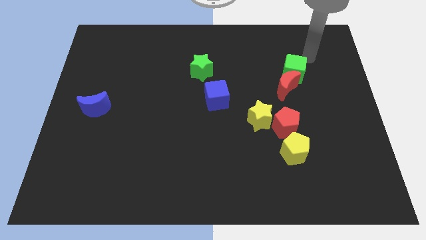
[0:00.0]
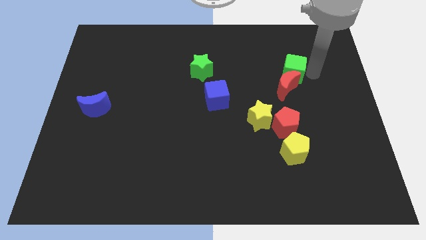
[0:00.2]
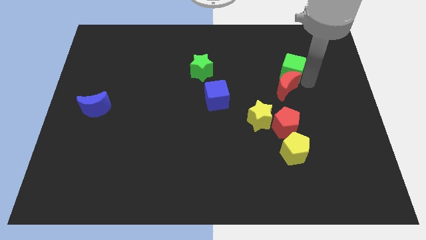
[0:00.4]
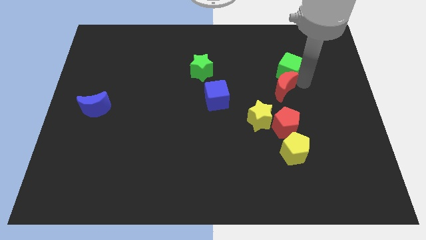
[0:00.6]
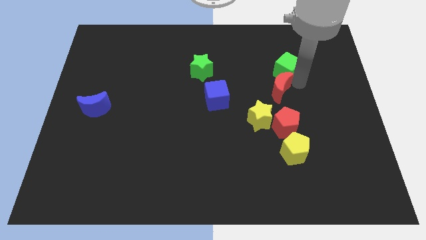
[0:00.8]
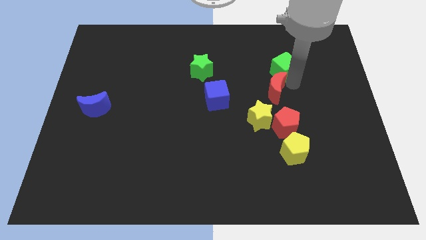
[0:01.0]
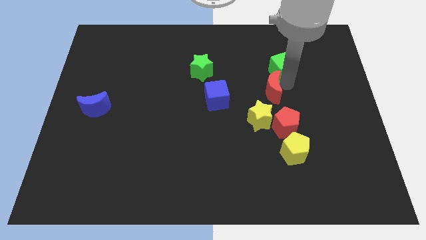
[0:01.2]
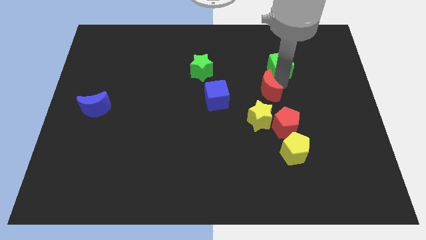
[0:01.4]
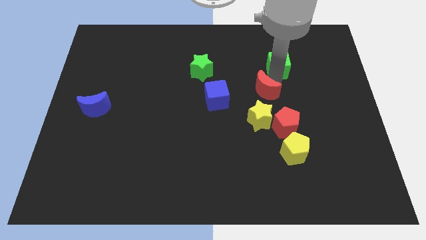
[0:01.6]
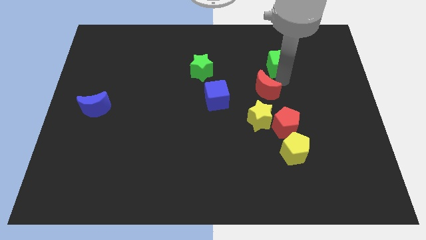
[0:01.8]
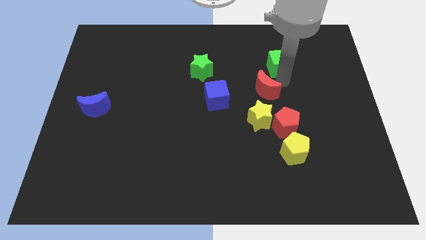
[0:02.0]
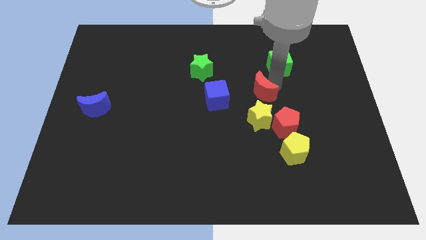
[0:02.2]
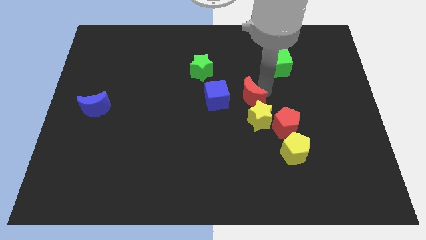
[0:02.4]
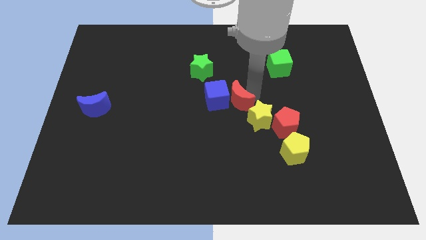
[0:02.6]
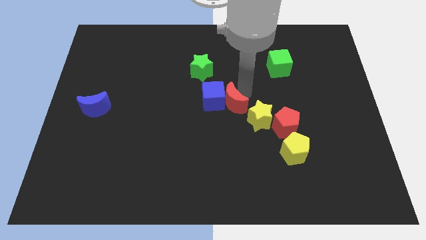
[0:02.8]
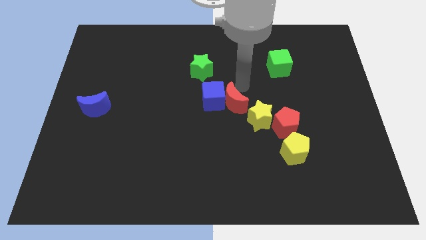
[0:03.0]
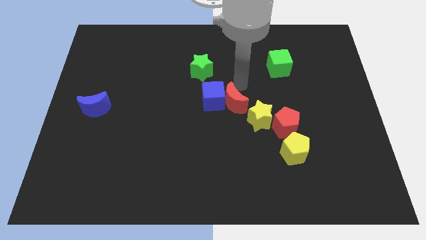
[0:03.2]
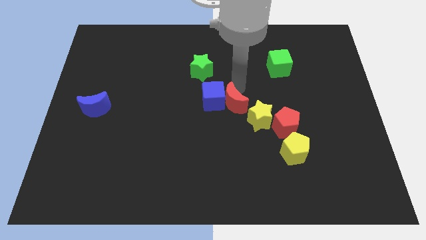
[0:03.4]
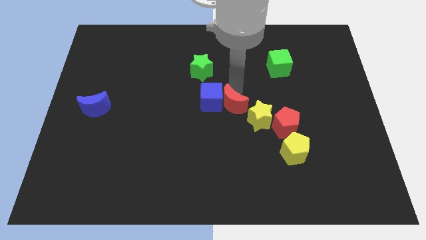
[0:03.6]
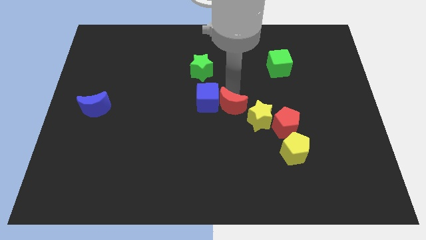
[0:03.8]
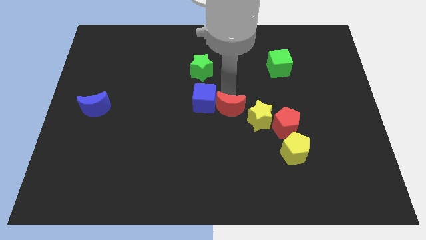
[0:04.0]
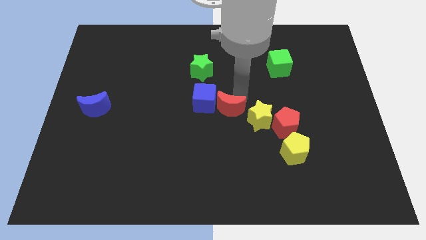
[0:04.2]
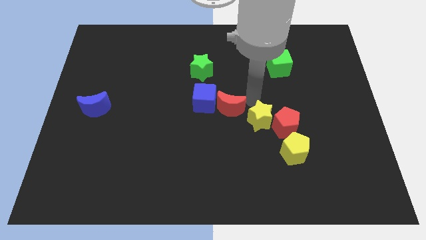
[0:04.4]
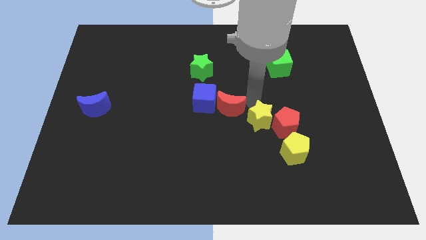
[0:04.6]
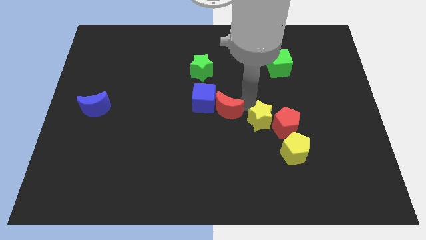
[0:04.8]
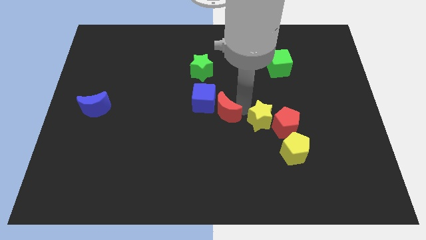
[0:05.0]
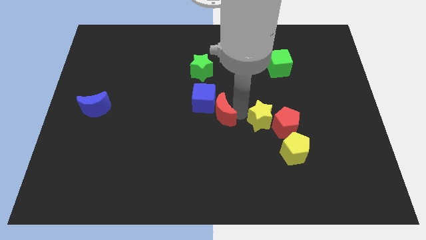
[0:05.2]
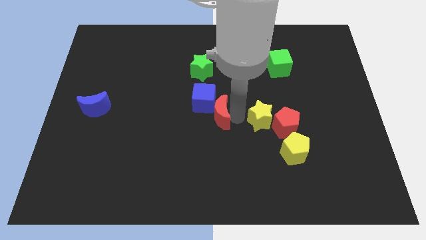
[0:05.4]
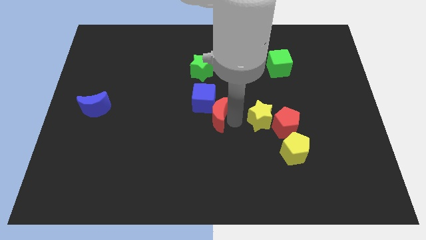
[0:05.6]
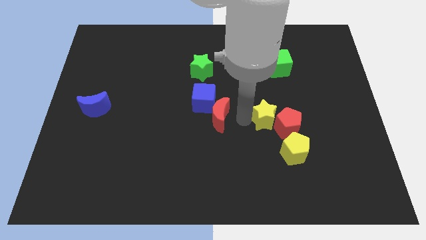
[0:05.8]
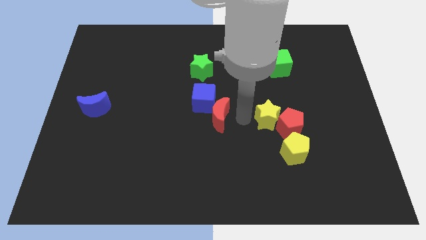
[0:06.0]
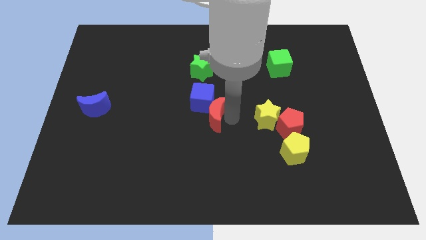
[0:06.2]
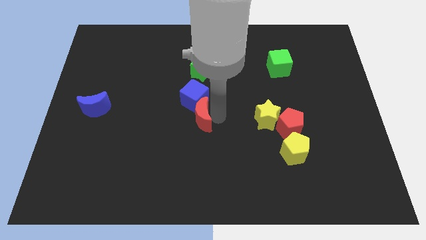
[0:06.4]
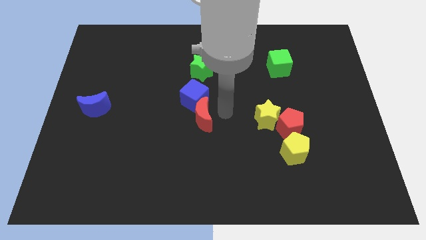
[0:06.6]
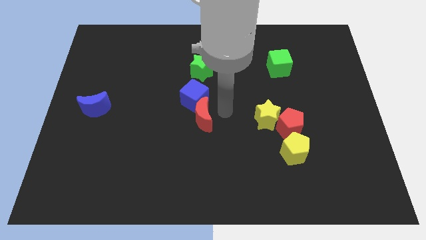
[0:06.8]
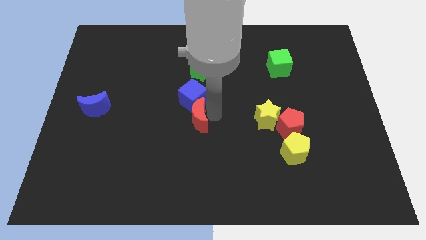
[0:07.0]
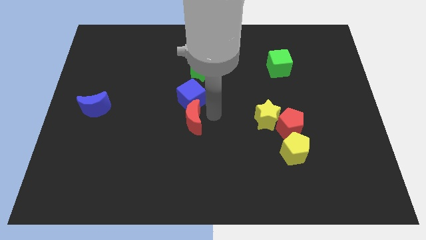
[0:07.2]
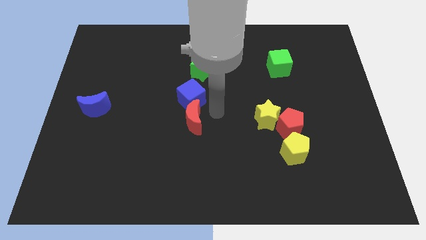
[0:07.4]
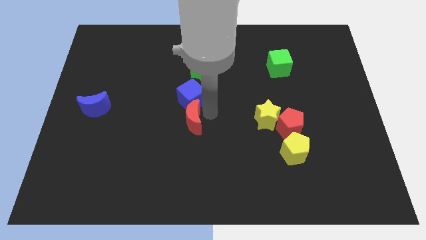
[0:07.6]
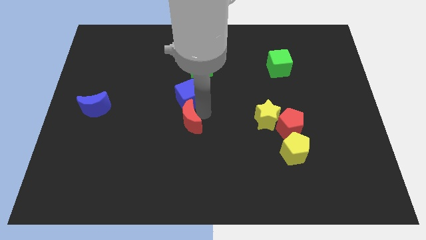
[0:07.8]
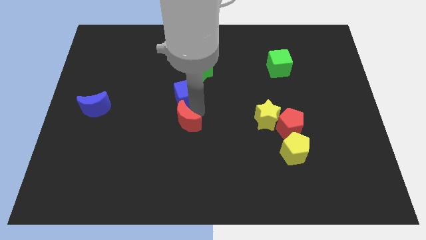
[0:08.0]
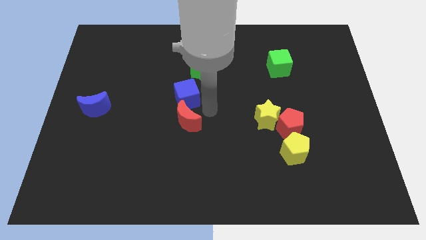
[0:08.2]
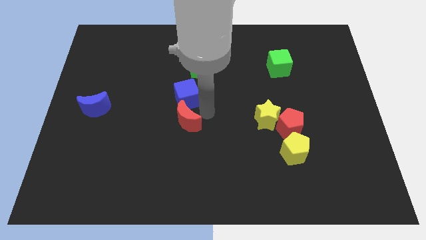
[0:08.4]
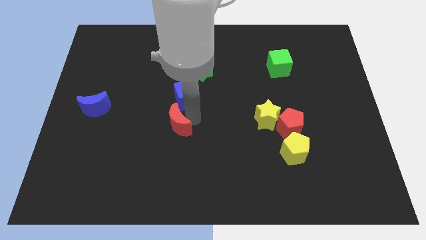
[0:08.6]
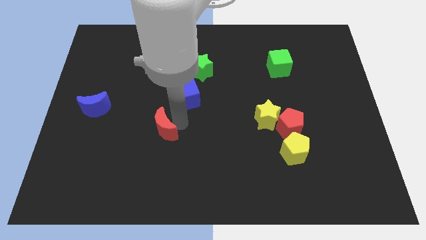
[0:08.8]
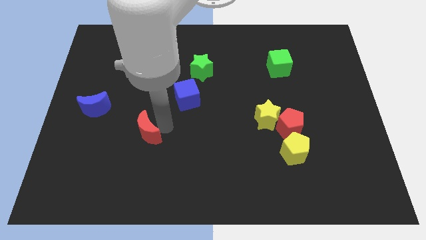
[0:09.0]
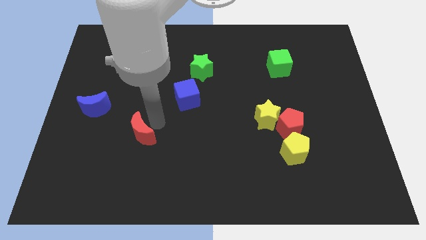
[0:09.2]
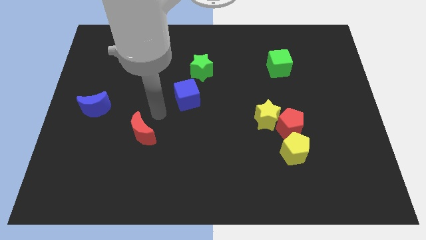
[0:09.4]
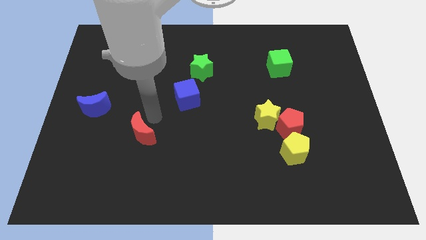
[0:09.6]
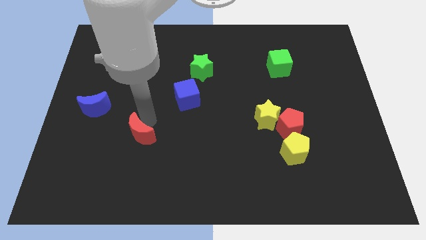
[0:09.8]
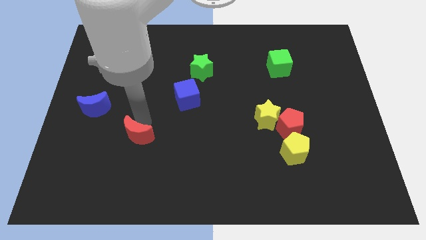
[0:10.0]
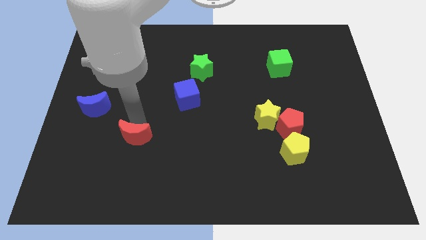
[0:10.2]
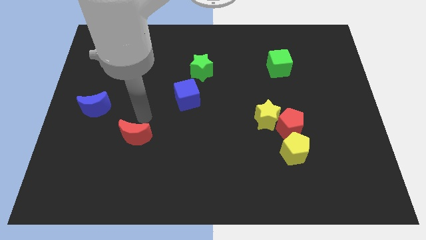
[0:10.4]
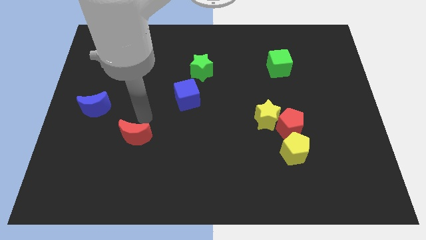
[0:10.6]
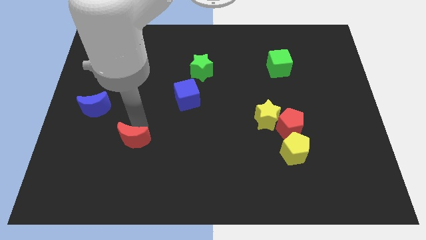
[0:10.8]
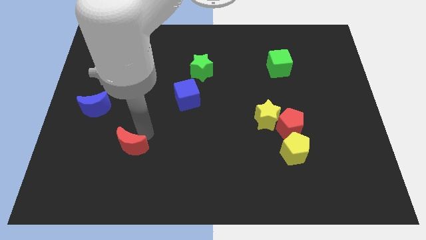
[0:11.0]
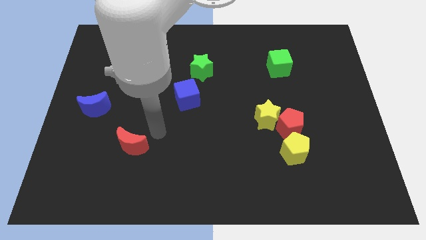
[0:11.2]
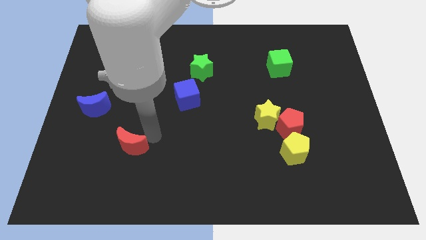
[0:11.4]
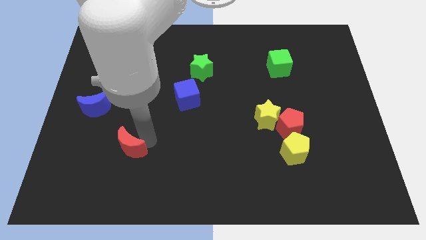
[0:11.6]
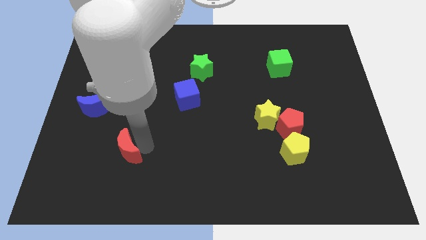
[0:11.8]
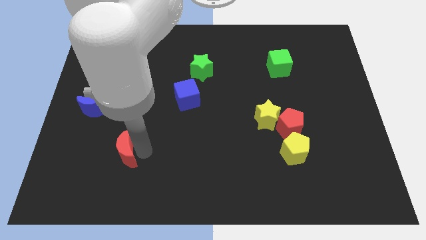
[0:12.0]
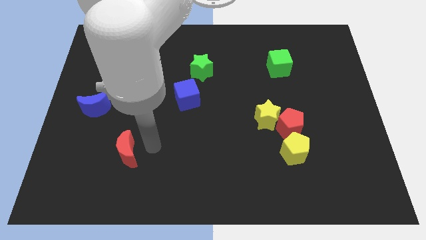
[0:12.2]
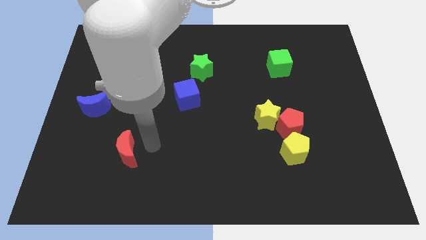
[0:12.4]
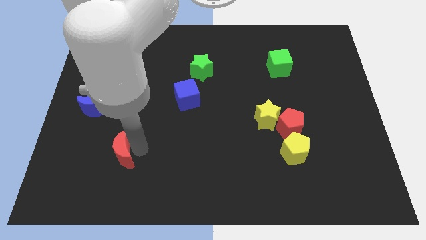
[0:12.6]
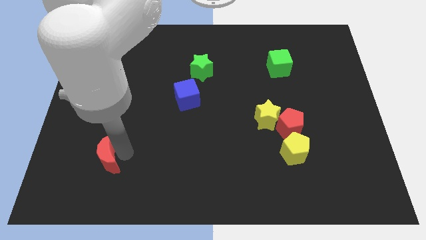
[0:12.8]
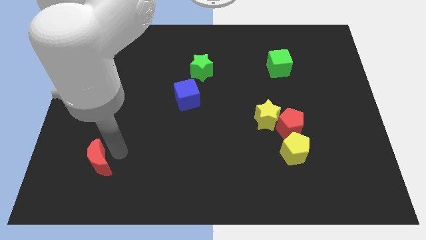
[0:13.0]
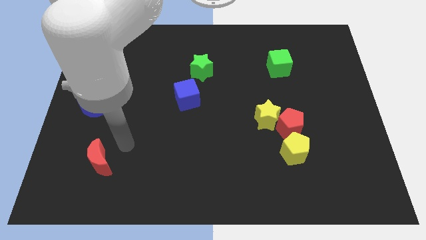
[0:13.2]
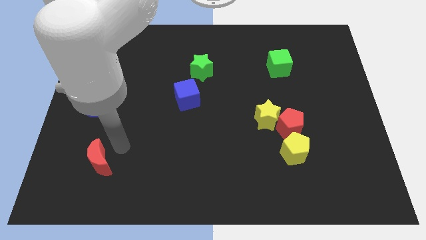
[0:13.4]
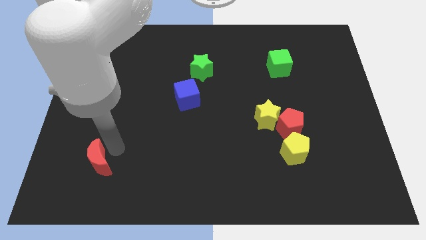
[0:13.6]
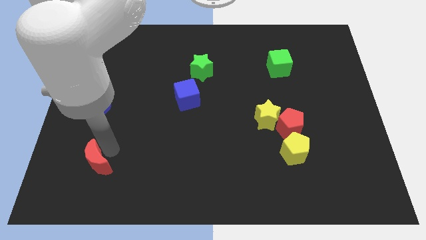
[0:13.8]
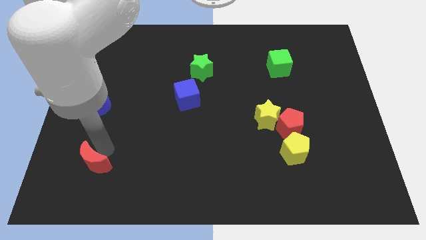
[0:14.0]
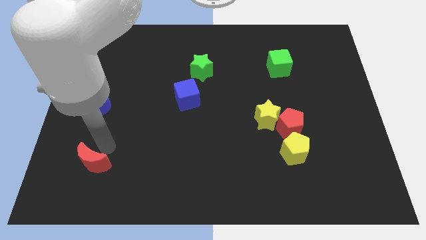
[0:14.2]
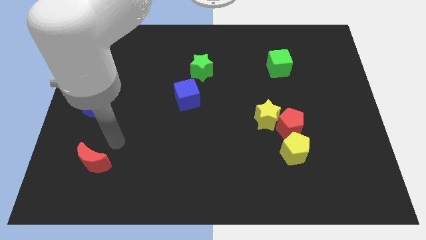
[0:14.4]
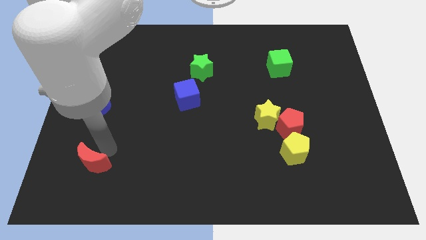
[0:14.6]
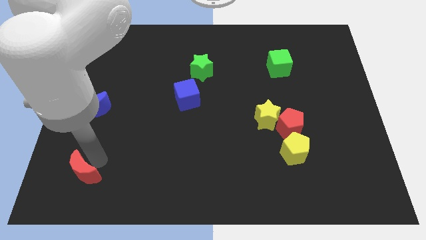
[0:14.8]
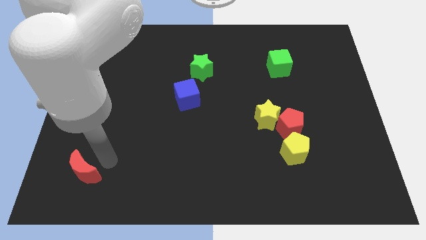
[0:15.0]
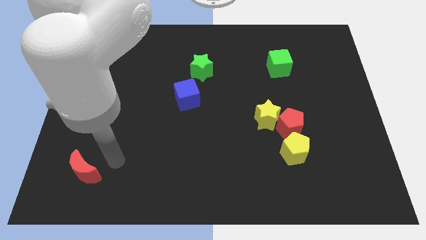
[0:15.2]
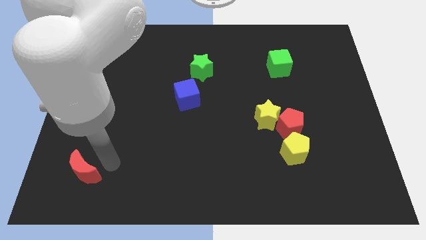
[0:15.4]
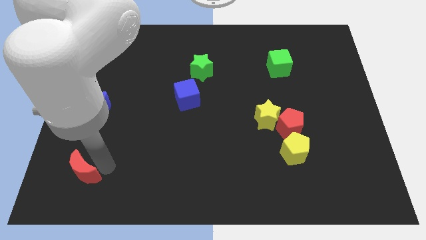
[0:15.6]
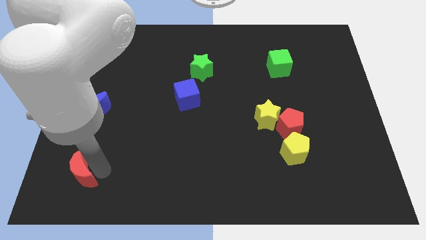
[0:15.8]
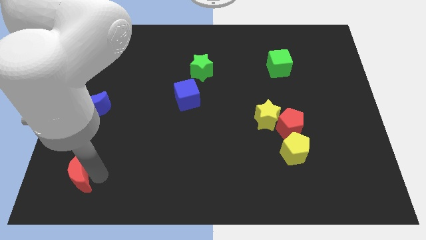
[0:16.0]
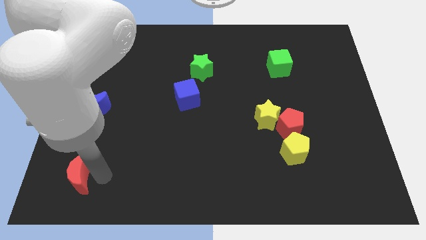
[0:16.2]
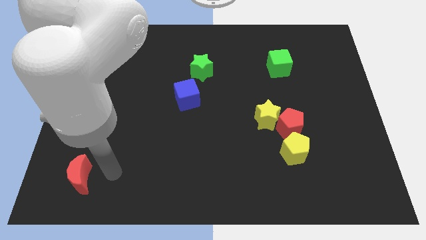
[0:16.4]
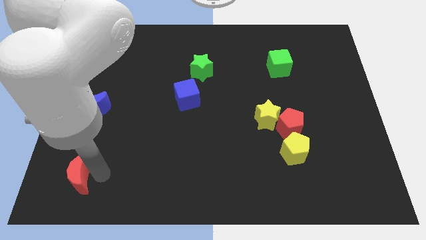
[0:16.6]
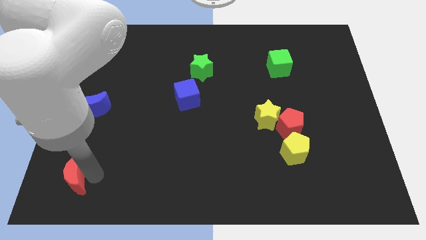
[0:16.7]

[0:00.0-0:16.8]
move the red moon to the bottom left corner
